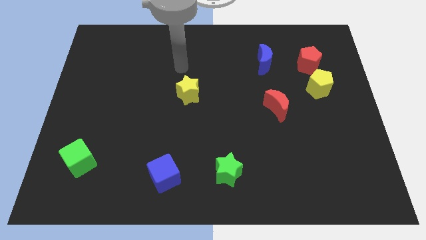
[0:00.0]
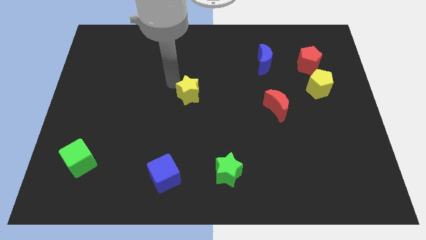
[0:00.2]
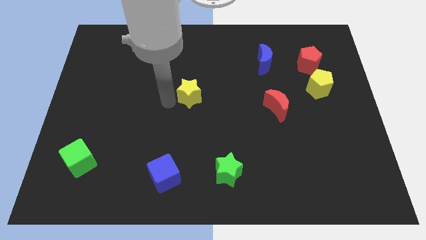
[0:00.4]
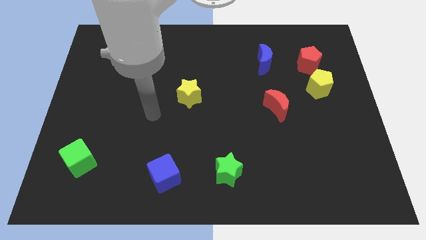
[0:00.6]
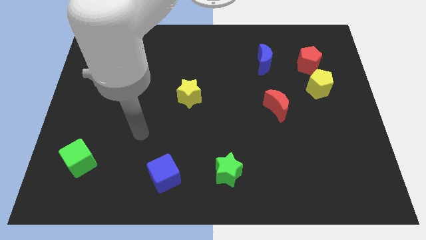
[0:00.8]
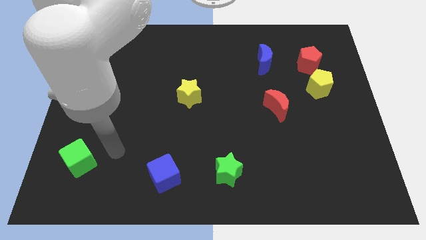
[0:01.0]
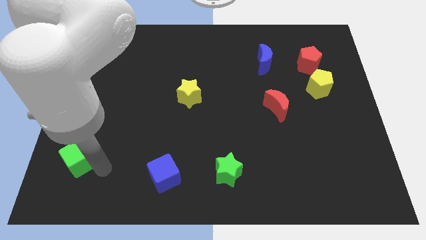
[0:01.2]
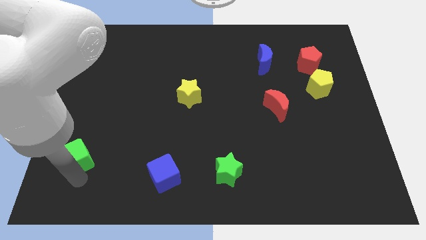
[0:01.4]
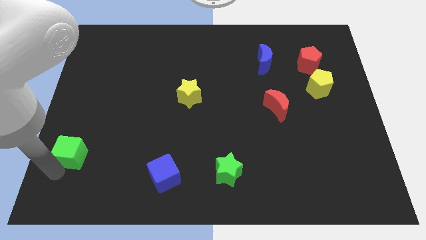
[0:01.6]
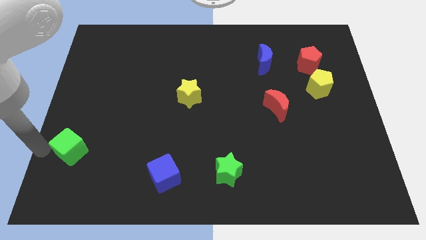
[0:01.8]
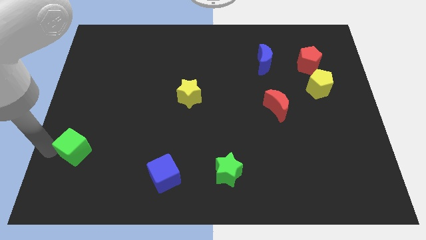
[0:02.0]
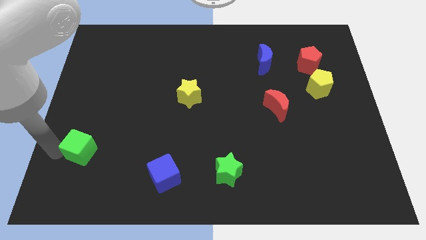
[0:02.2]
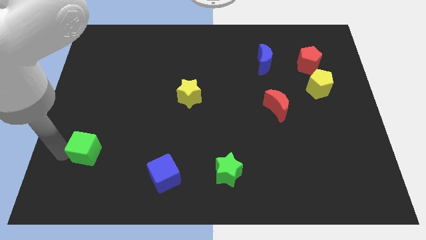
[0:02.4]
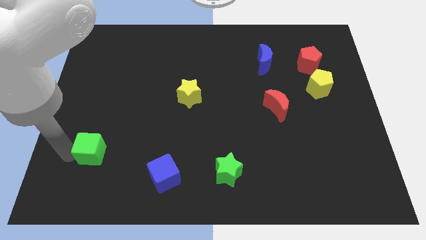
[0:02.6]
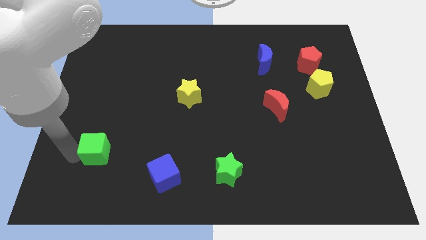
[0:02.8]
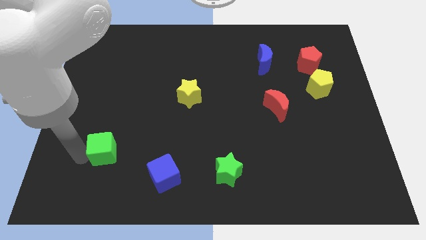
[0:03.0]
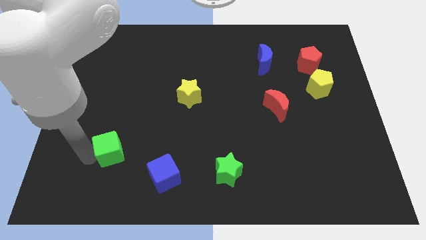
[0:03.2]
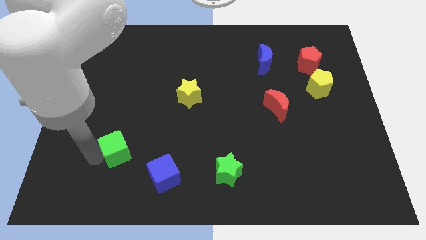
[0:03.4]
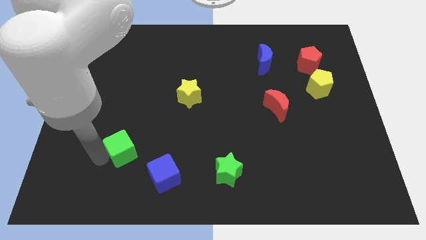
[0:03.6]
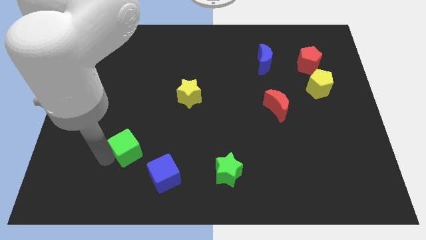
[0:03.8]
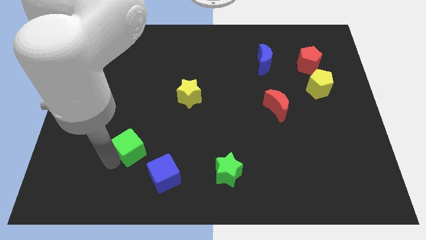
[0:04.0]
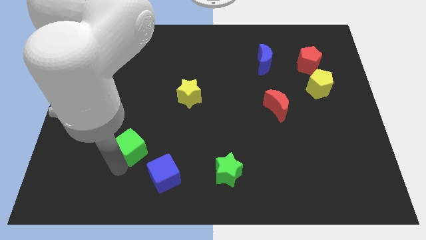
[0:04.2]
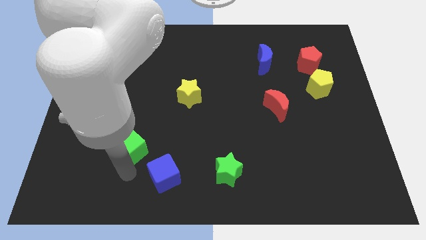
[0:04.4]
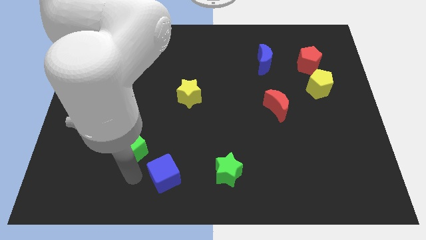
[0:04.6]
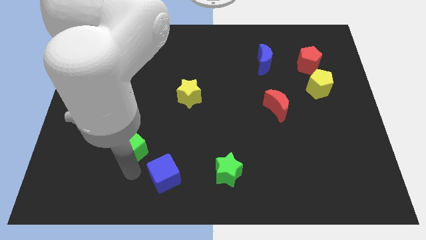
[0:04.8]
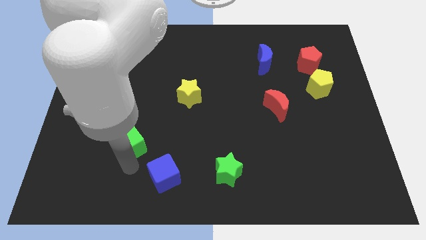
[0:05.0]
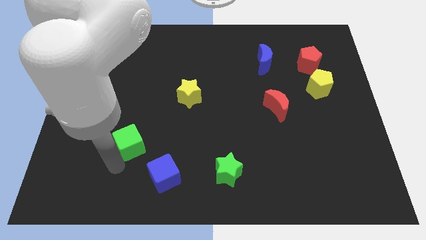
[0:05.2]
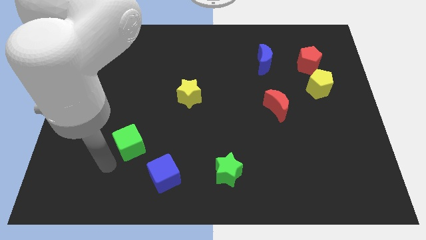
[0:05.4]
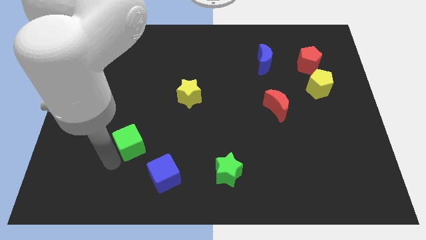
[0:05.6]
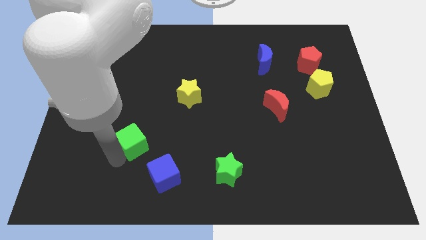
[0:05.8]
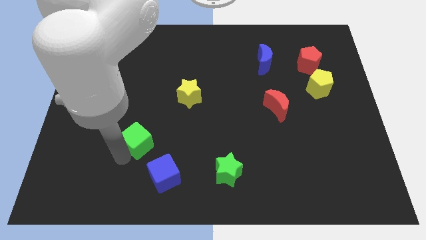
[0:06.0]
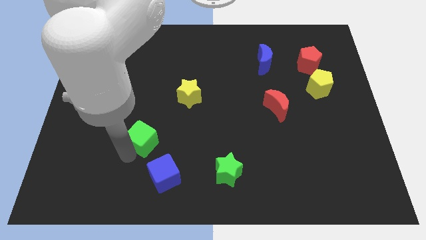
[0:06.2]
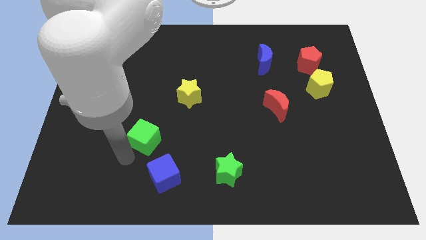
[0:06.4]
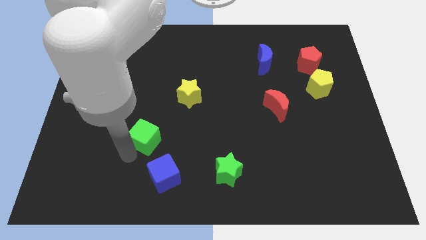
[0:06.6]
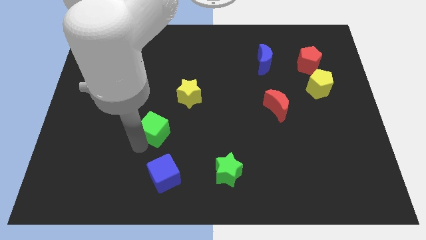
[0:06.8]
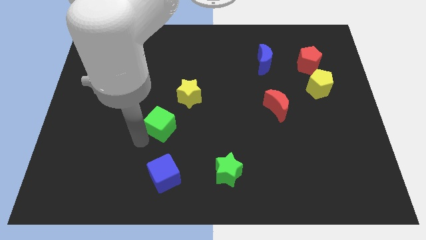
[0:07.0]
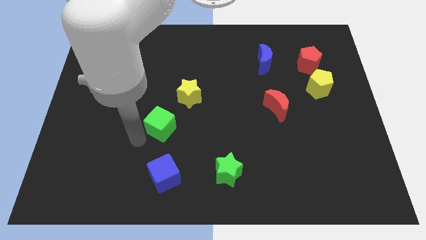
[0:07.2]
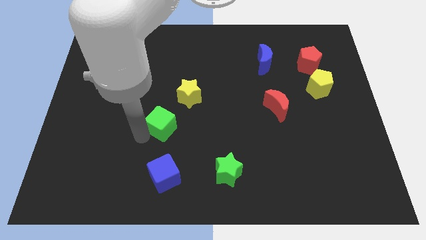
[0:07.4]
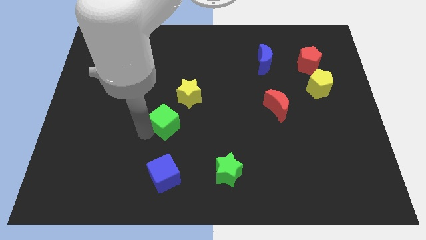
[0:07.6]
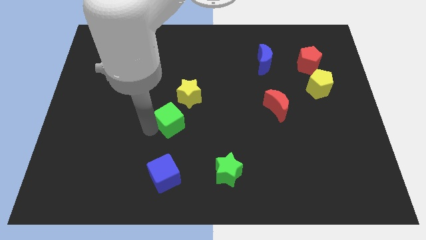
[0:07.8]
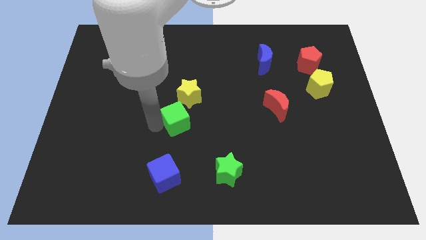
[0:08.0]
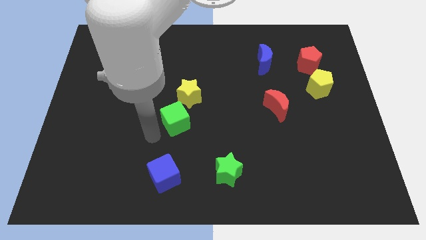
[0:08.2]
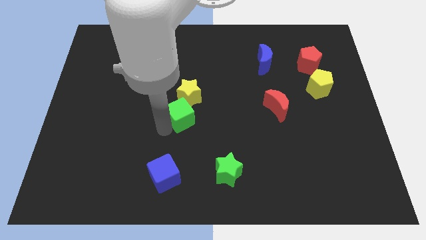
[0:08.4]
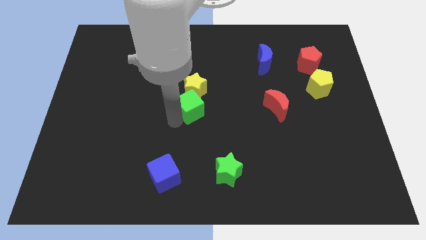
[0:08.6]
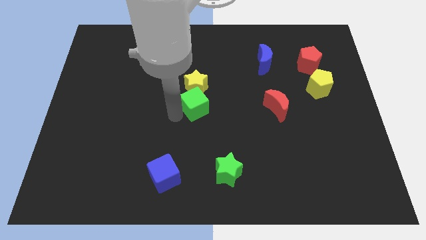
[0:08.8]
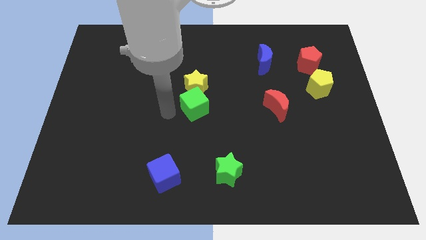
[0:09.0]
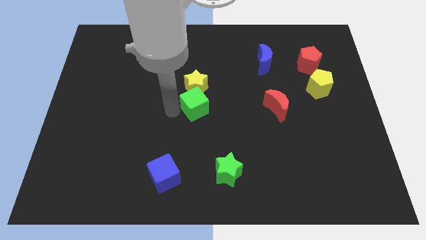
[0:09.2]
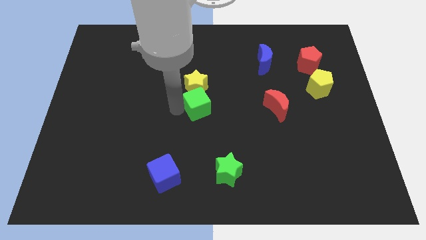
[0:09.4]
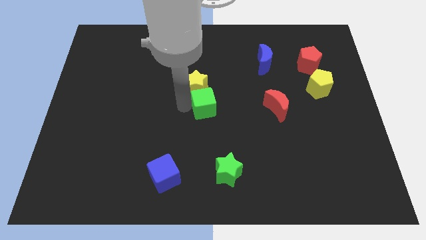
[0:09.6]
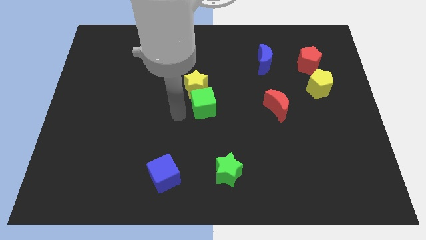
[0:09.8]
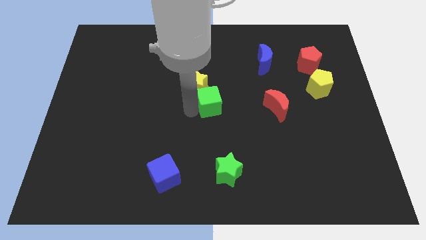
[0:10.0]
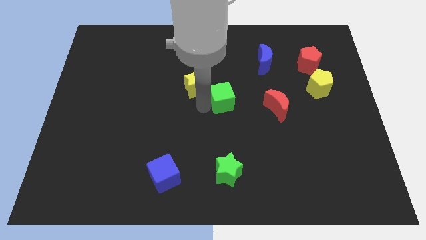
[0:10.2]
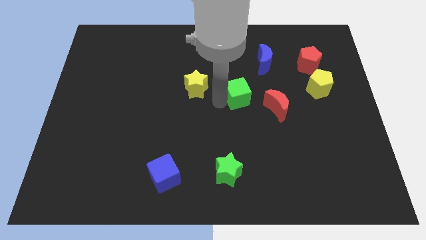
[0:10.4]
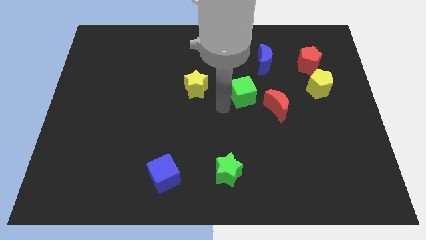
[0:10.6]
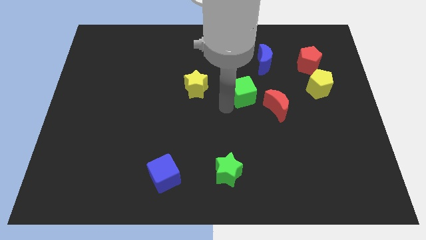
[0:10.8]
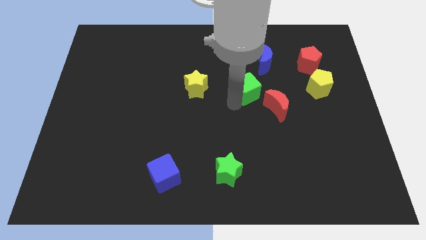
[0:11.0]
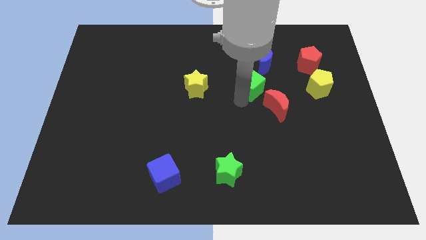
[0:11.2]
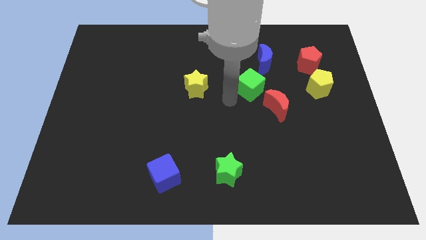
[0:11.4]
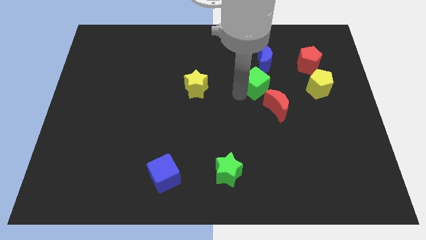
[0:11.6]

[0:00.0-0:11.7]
push the green cube above the red moon

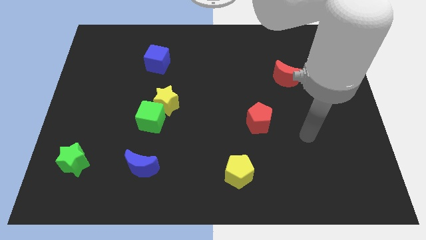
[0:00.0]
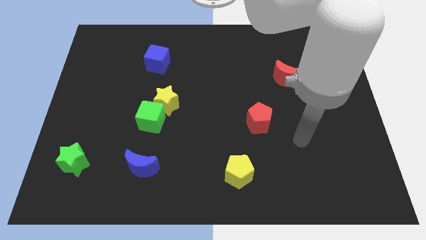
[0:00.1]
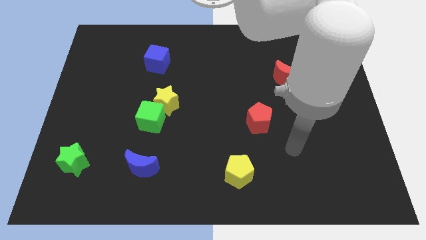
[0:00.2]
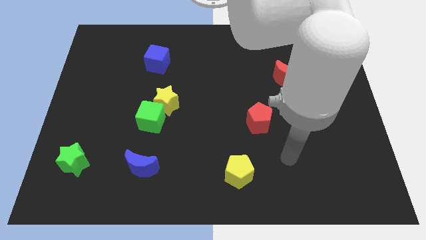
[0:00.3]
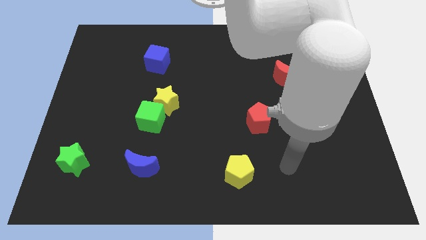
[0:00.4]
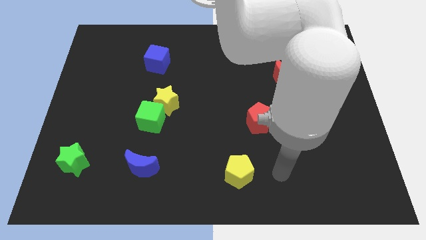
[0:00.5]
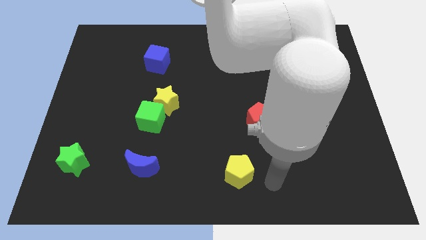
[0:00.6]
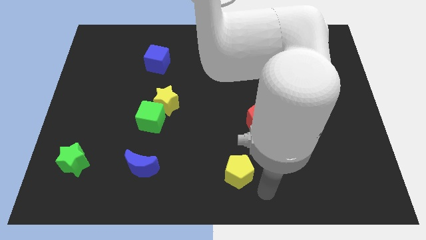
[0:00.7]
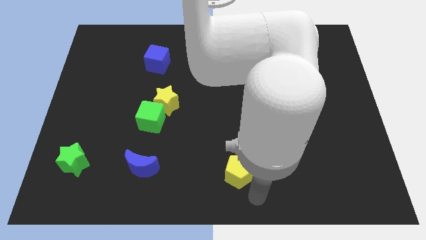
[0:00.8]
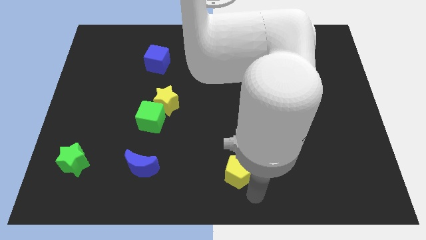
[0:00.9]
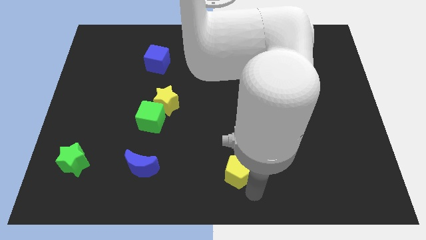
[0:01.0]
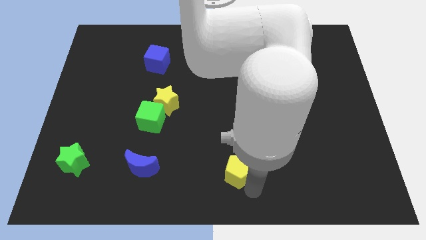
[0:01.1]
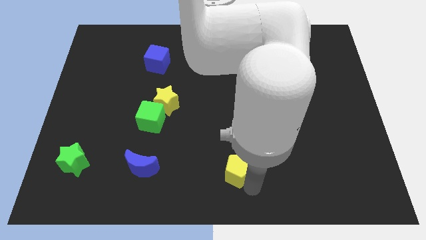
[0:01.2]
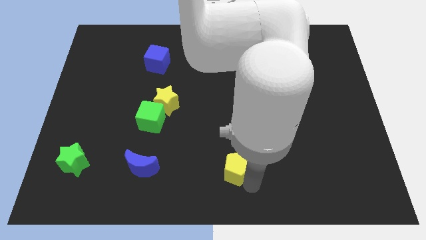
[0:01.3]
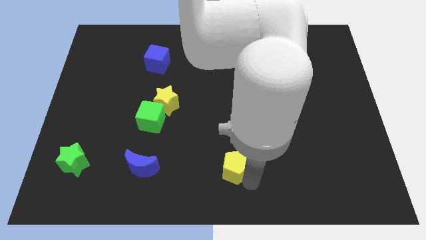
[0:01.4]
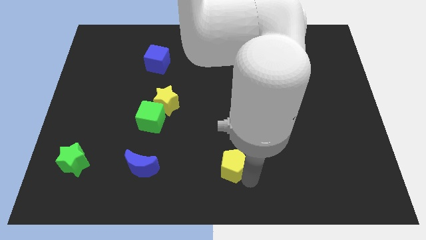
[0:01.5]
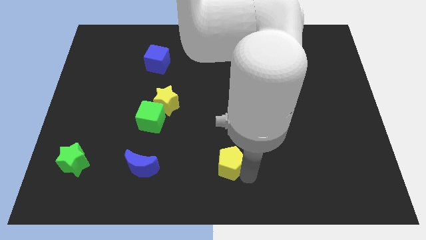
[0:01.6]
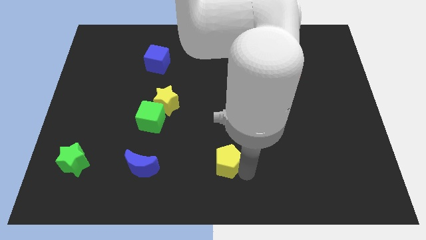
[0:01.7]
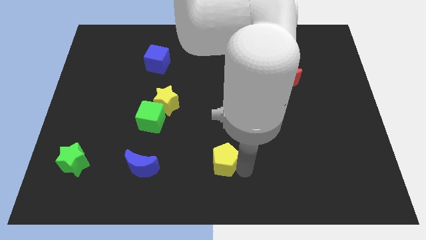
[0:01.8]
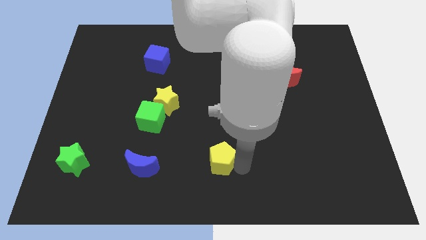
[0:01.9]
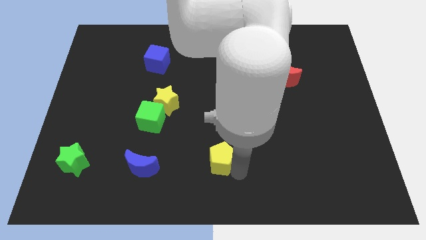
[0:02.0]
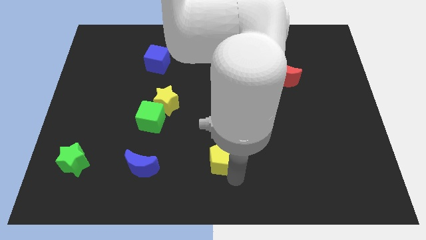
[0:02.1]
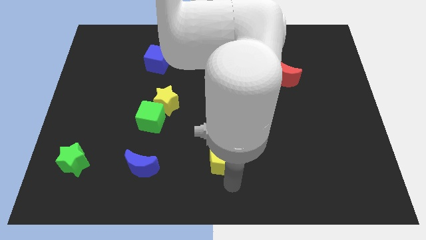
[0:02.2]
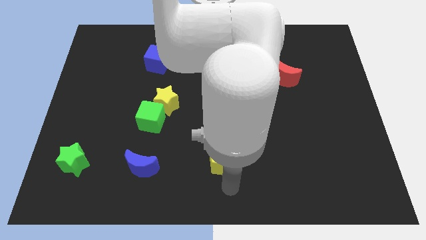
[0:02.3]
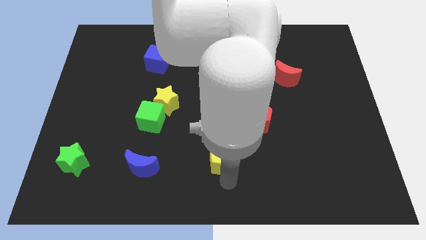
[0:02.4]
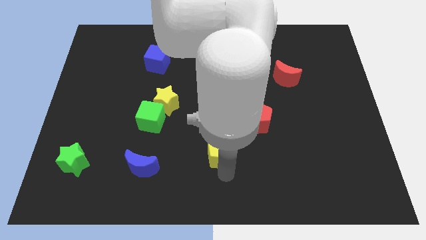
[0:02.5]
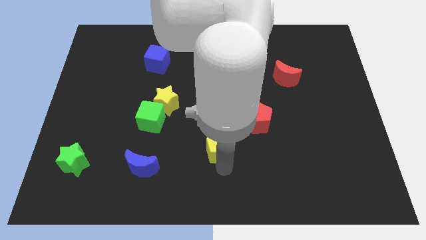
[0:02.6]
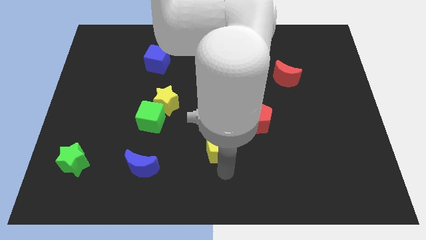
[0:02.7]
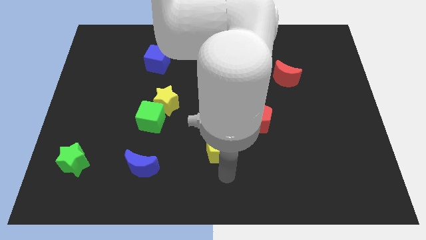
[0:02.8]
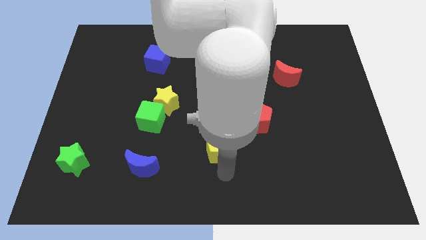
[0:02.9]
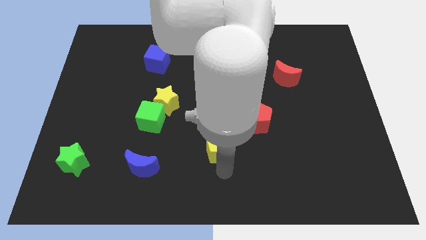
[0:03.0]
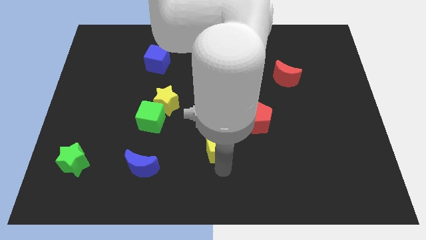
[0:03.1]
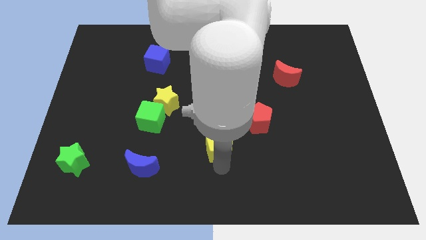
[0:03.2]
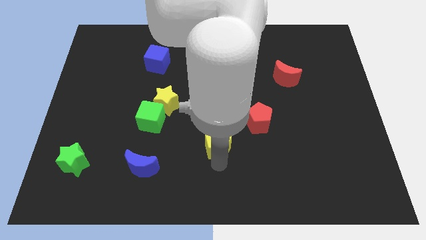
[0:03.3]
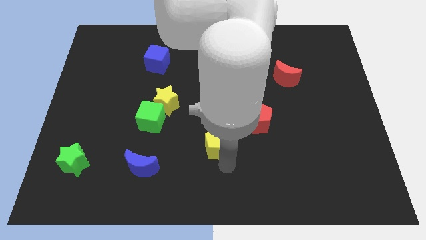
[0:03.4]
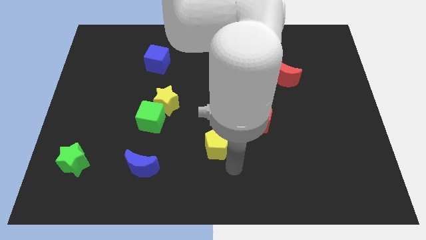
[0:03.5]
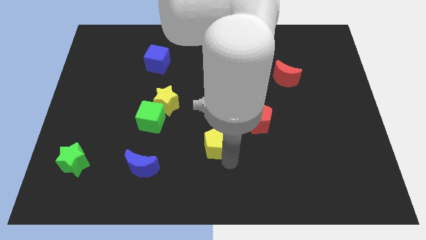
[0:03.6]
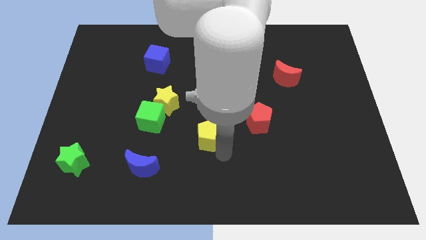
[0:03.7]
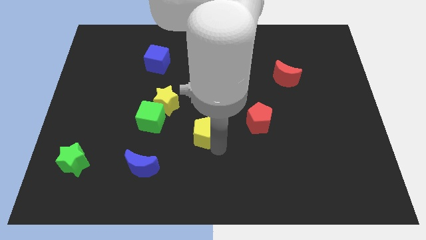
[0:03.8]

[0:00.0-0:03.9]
put the yellow pentagon to the right of the green cube
